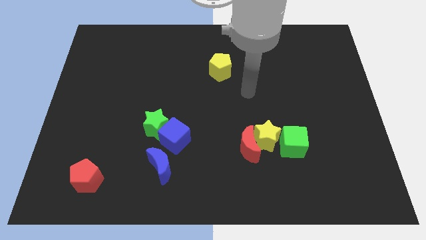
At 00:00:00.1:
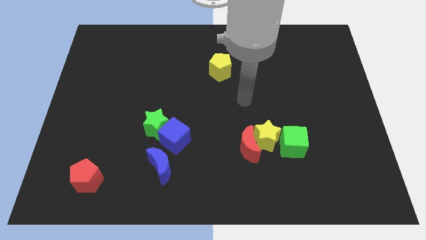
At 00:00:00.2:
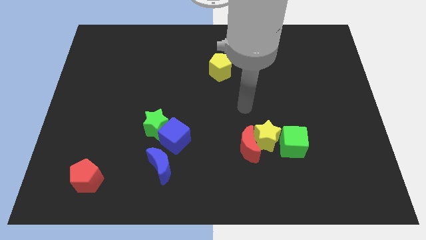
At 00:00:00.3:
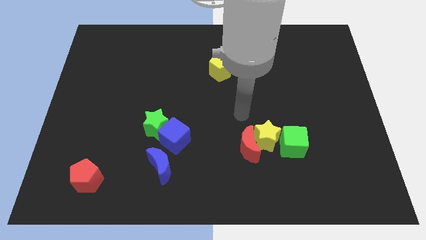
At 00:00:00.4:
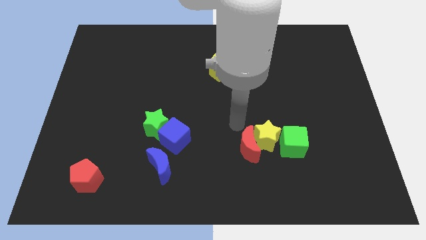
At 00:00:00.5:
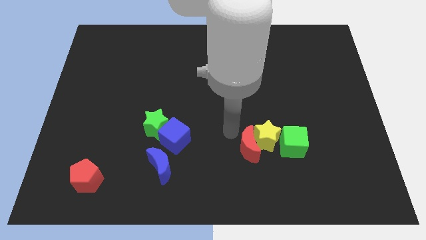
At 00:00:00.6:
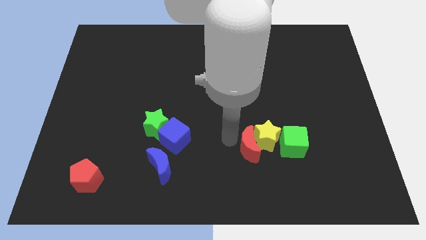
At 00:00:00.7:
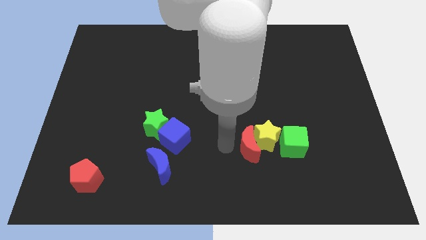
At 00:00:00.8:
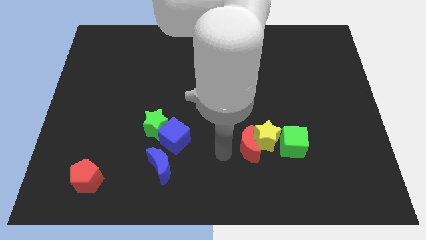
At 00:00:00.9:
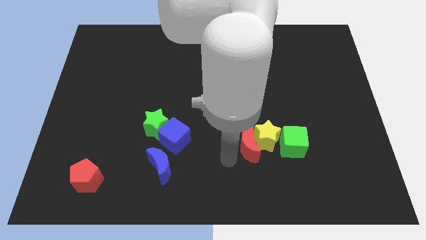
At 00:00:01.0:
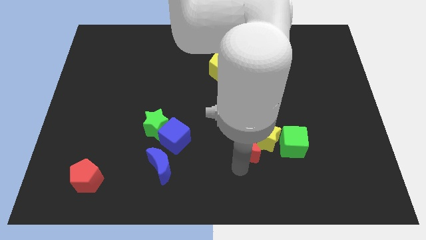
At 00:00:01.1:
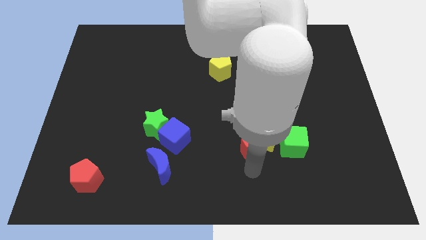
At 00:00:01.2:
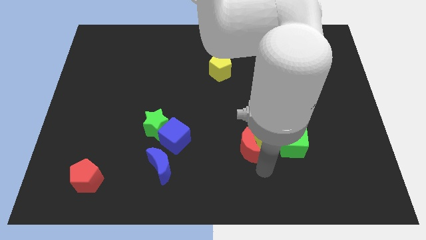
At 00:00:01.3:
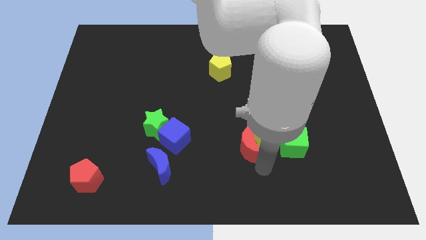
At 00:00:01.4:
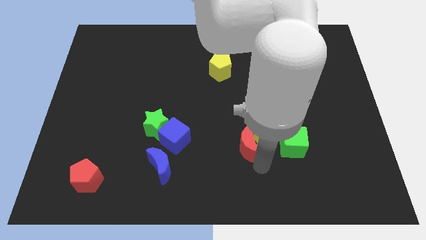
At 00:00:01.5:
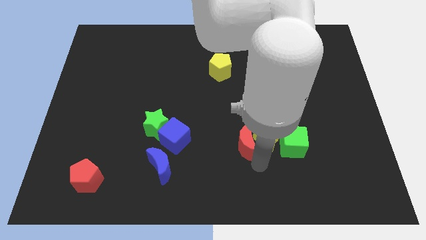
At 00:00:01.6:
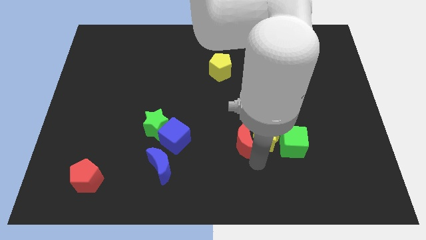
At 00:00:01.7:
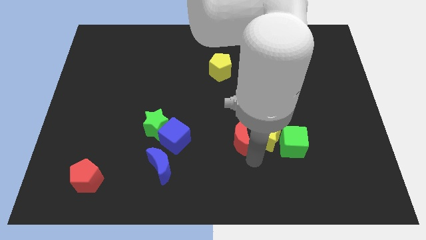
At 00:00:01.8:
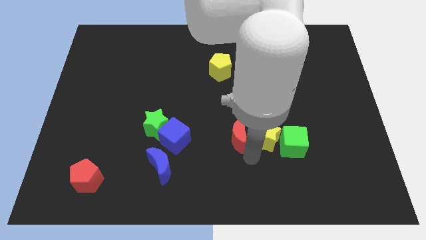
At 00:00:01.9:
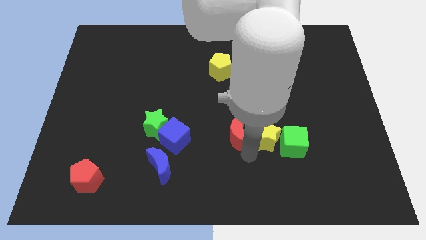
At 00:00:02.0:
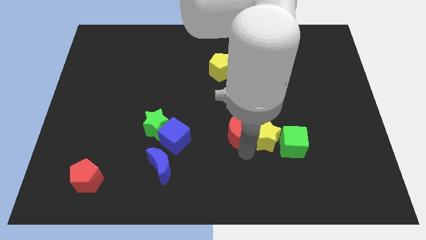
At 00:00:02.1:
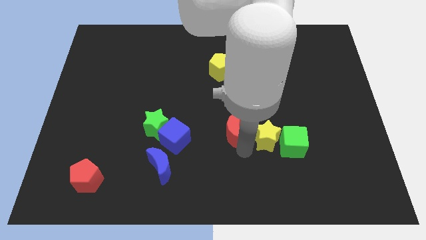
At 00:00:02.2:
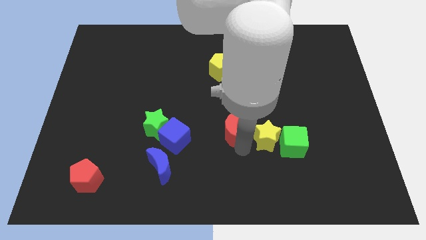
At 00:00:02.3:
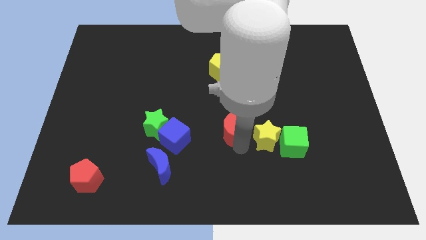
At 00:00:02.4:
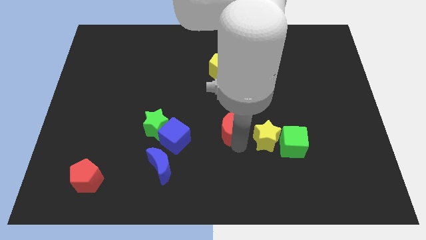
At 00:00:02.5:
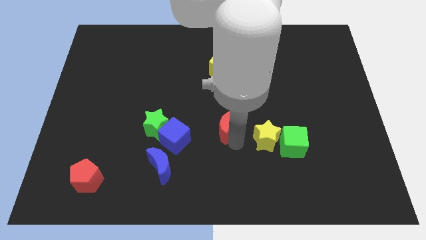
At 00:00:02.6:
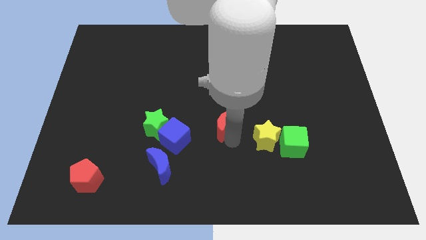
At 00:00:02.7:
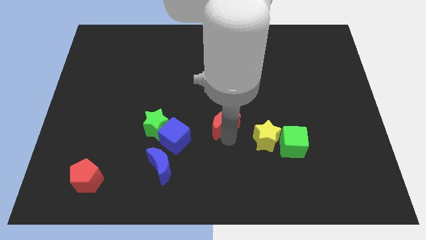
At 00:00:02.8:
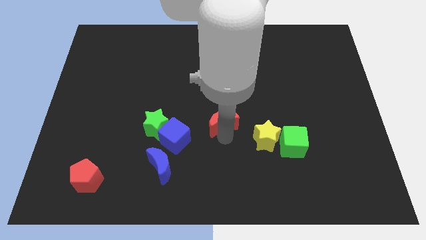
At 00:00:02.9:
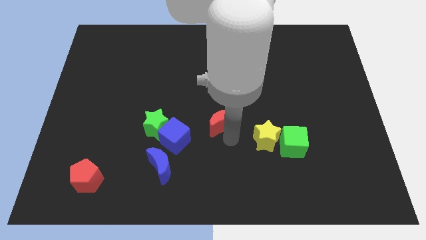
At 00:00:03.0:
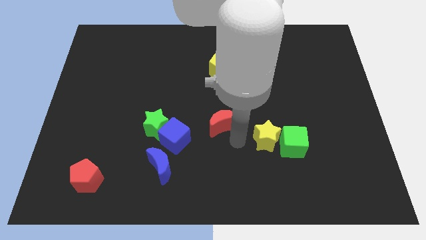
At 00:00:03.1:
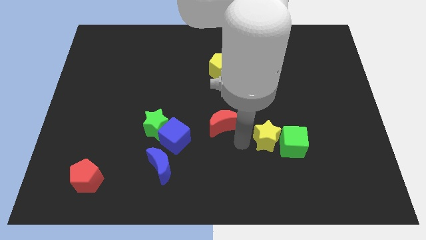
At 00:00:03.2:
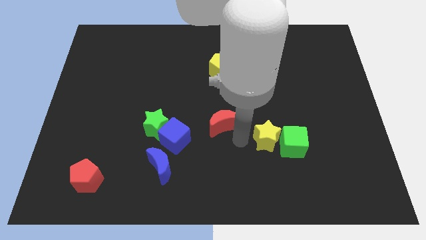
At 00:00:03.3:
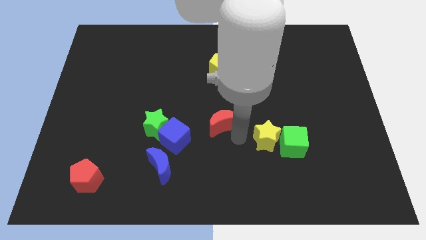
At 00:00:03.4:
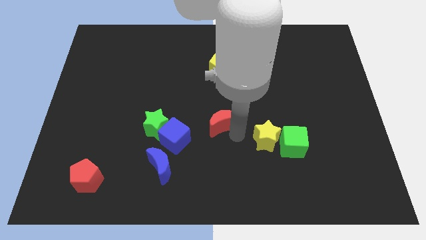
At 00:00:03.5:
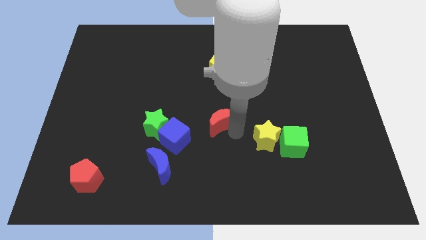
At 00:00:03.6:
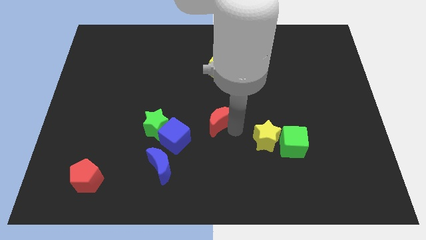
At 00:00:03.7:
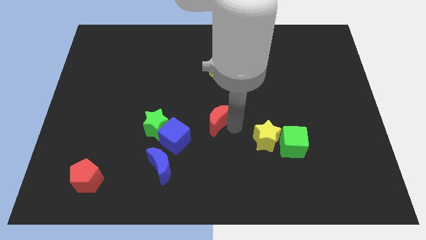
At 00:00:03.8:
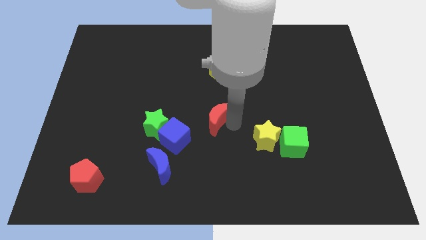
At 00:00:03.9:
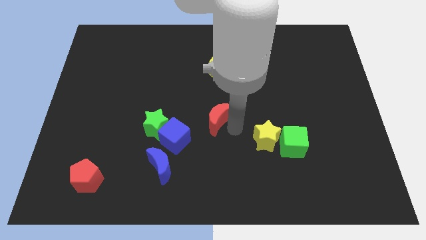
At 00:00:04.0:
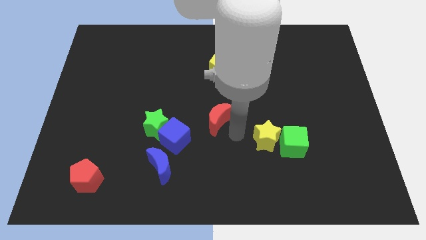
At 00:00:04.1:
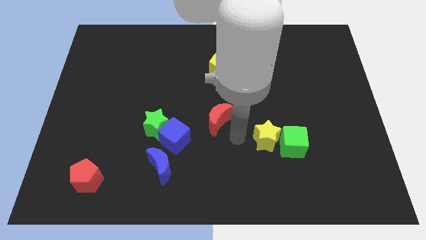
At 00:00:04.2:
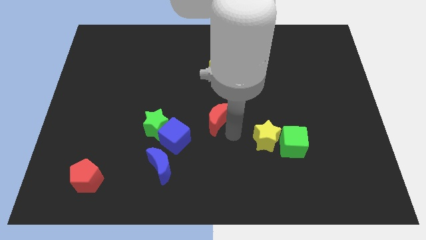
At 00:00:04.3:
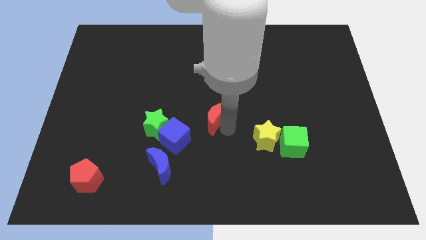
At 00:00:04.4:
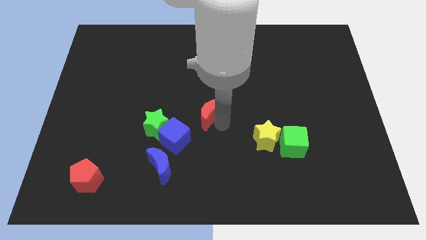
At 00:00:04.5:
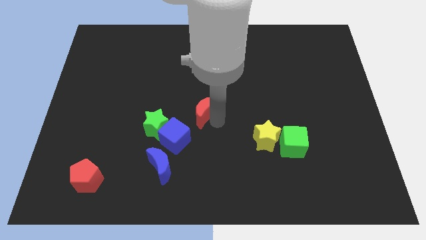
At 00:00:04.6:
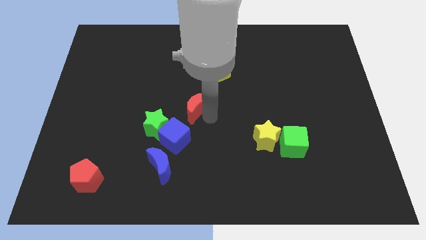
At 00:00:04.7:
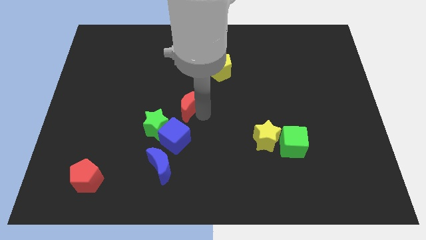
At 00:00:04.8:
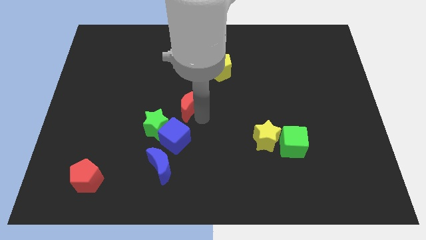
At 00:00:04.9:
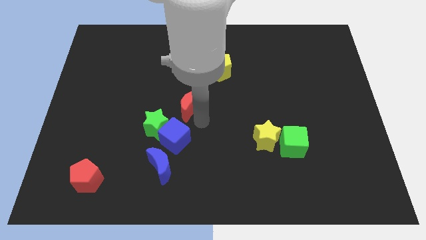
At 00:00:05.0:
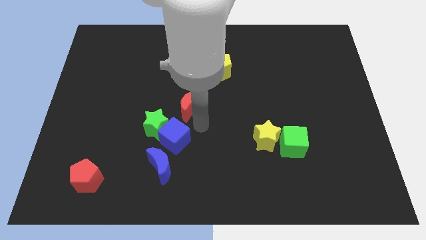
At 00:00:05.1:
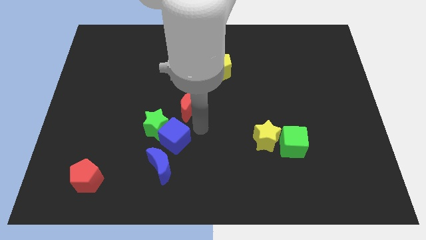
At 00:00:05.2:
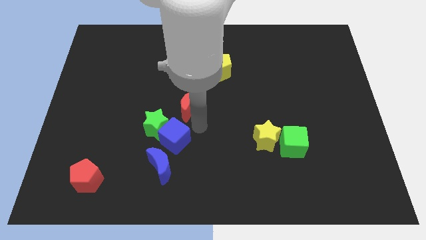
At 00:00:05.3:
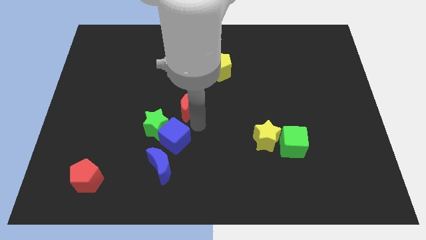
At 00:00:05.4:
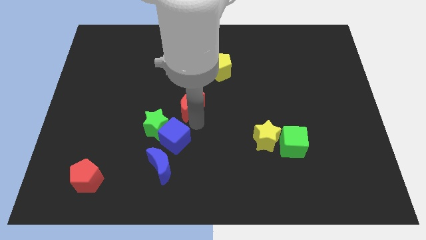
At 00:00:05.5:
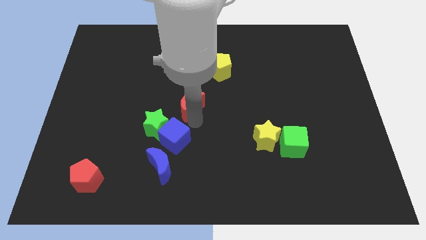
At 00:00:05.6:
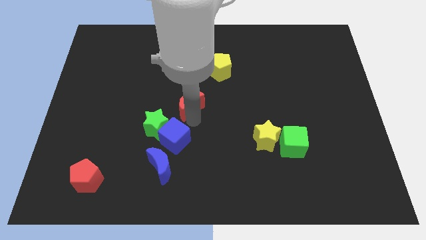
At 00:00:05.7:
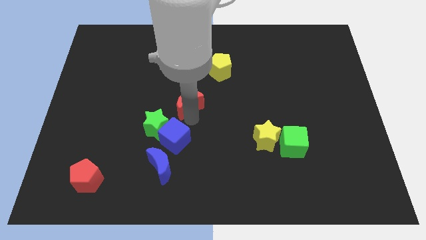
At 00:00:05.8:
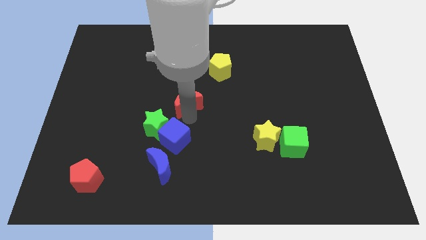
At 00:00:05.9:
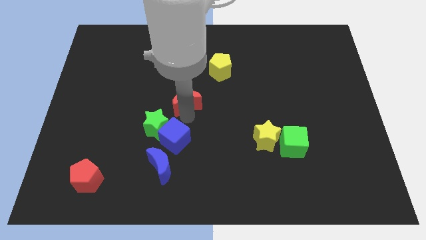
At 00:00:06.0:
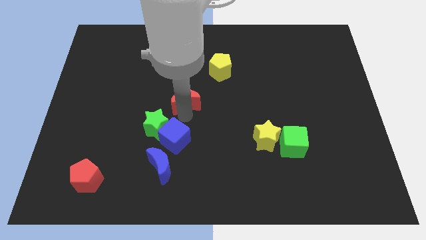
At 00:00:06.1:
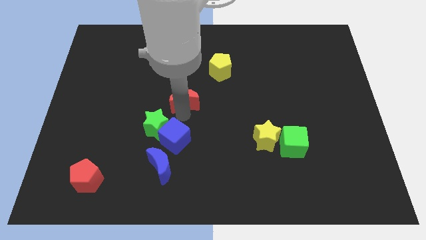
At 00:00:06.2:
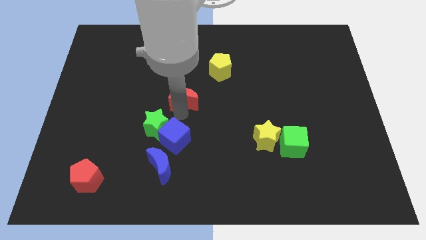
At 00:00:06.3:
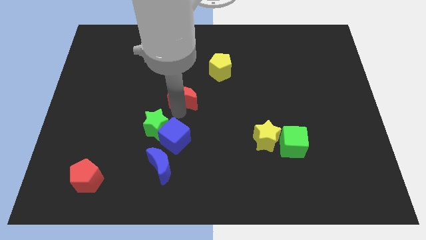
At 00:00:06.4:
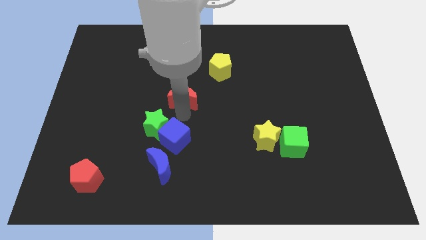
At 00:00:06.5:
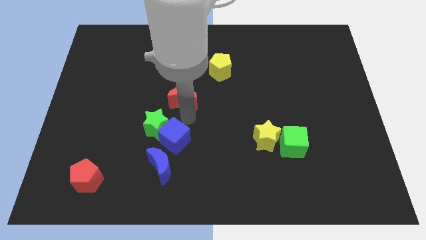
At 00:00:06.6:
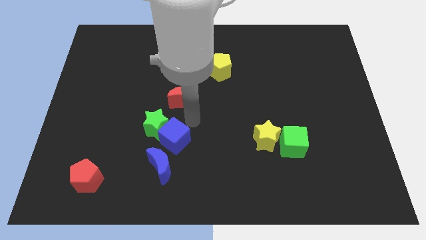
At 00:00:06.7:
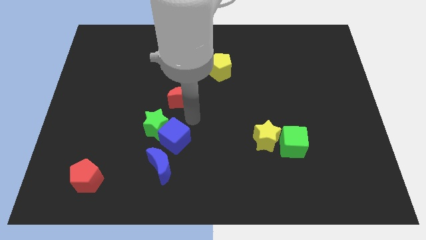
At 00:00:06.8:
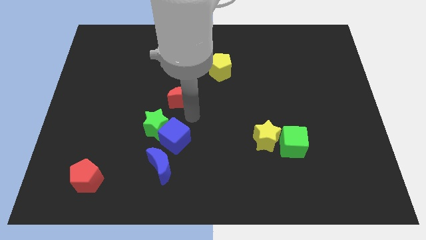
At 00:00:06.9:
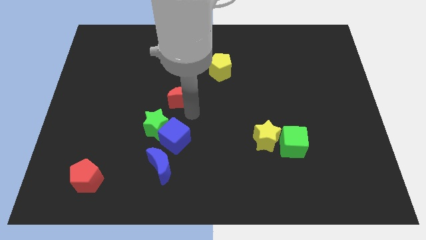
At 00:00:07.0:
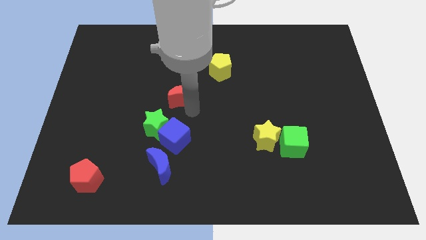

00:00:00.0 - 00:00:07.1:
move the red moon diagonally upwards and left

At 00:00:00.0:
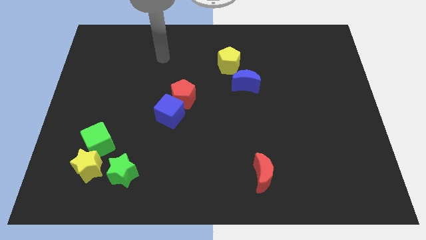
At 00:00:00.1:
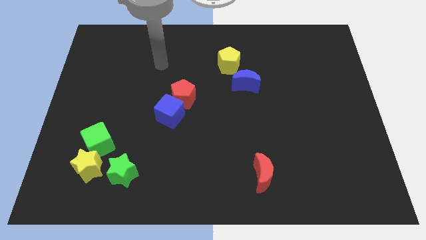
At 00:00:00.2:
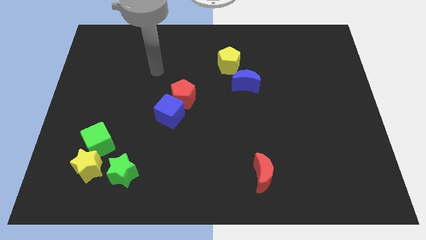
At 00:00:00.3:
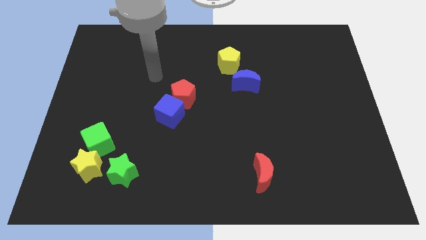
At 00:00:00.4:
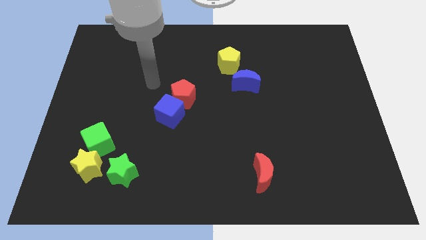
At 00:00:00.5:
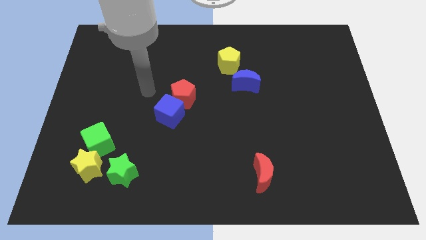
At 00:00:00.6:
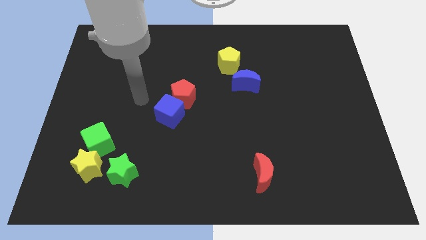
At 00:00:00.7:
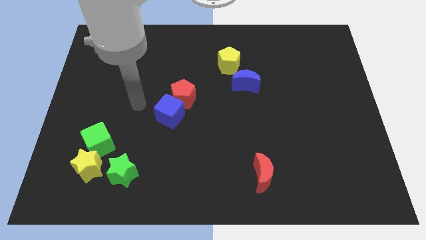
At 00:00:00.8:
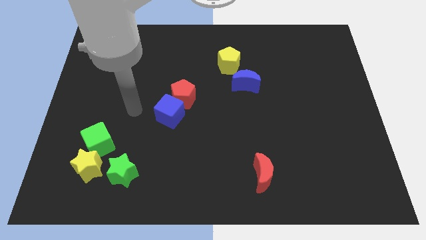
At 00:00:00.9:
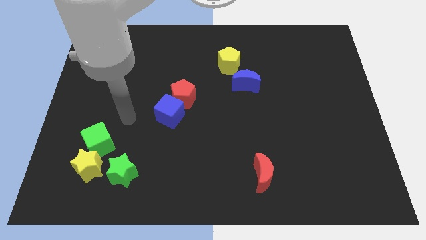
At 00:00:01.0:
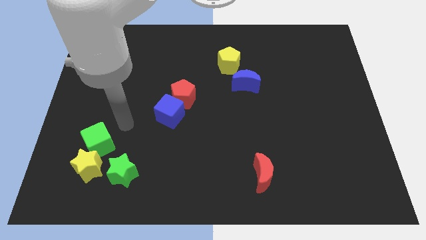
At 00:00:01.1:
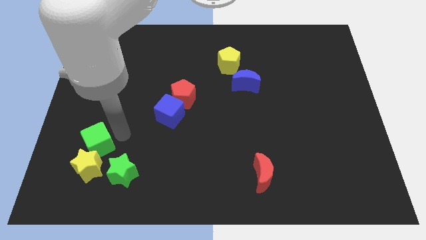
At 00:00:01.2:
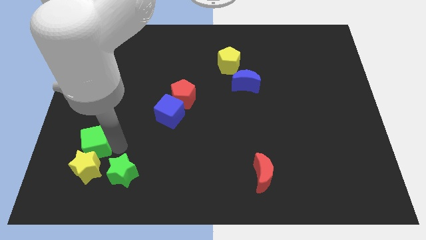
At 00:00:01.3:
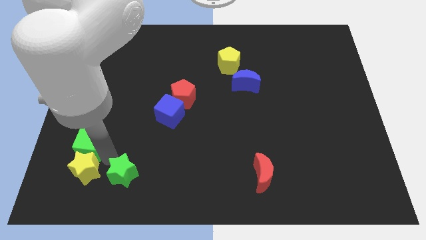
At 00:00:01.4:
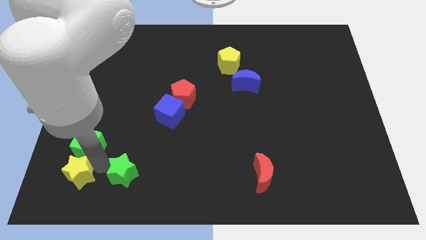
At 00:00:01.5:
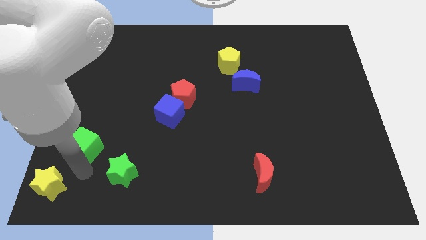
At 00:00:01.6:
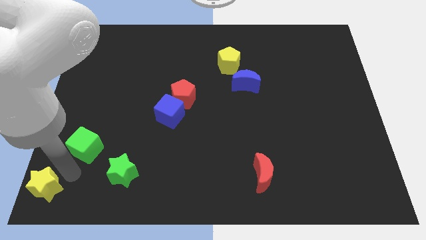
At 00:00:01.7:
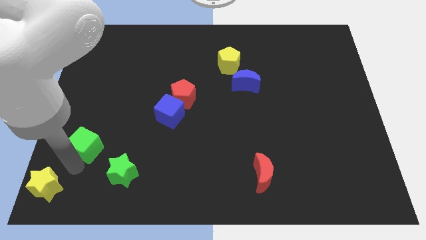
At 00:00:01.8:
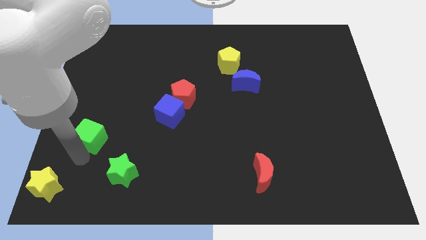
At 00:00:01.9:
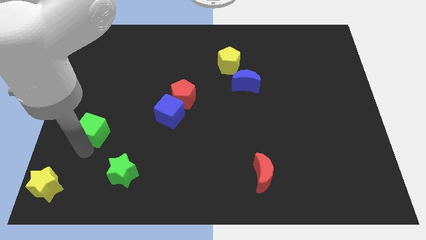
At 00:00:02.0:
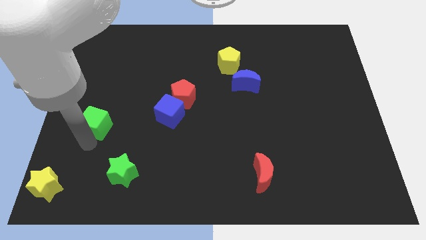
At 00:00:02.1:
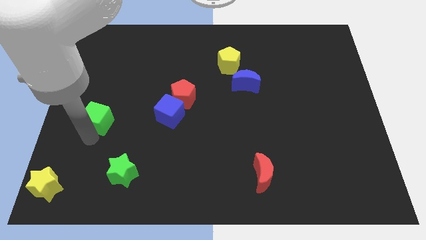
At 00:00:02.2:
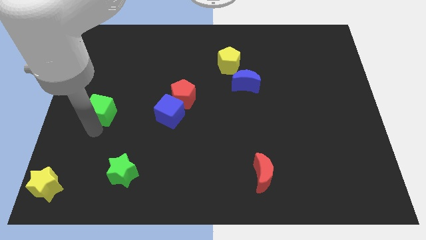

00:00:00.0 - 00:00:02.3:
push the green cube a bit upwards
